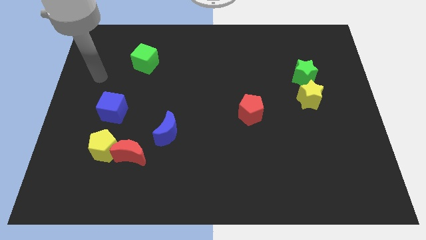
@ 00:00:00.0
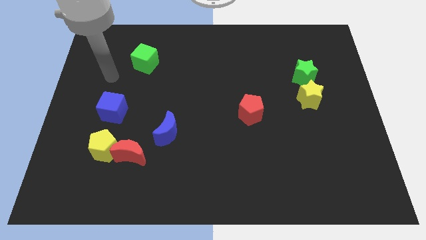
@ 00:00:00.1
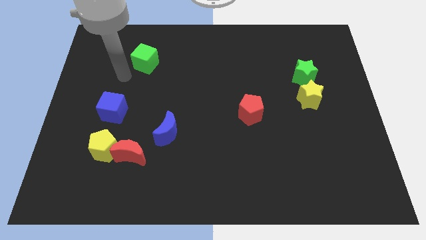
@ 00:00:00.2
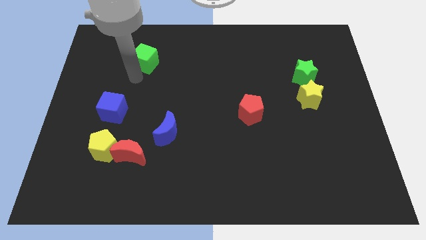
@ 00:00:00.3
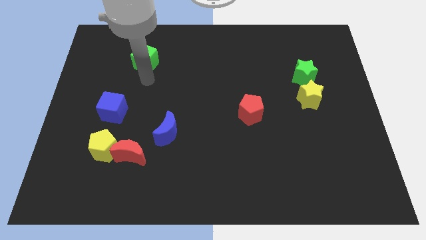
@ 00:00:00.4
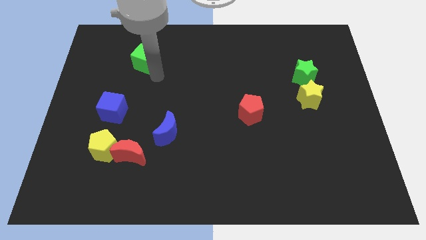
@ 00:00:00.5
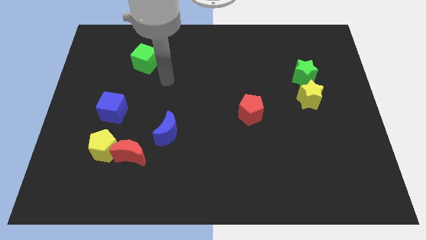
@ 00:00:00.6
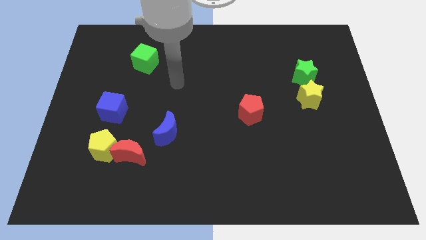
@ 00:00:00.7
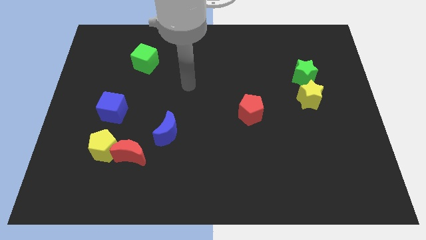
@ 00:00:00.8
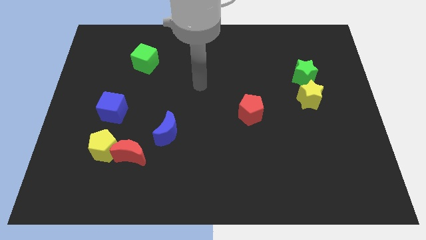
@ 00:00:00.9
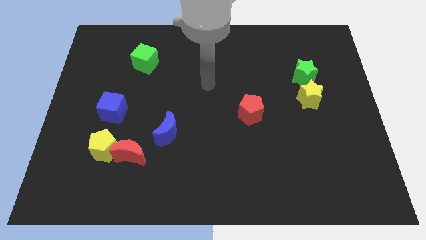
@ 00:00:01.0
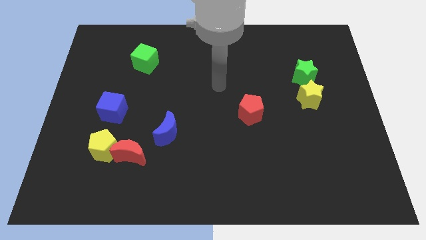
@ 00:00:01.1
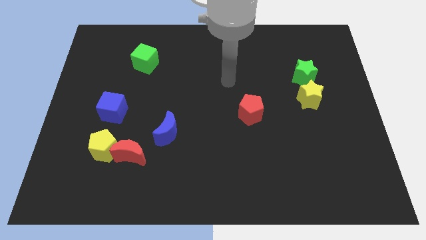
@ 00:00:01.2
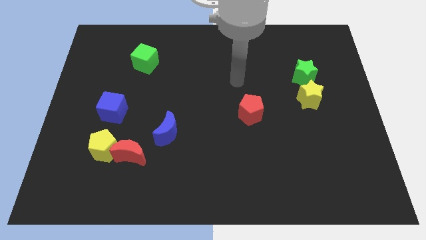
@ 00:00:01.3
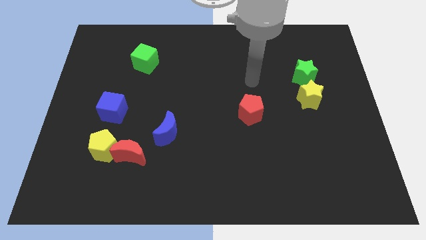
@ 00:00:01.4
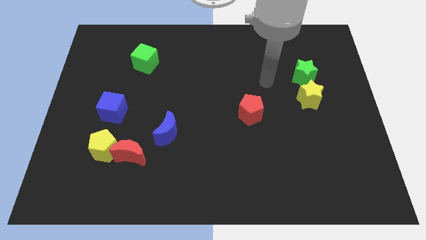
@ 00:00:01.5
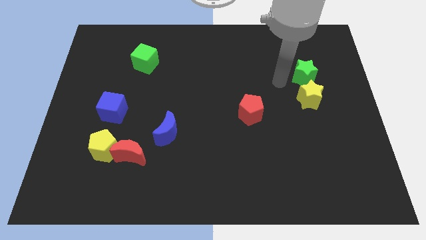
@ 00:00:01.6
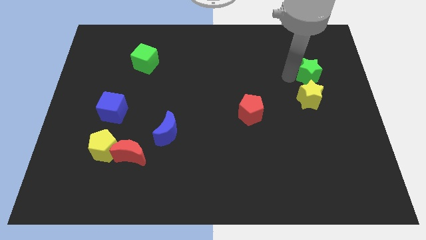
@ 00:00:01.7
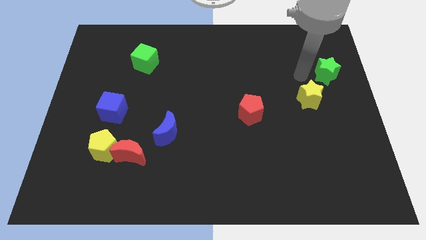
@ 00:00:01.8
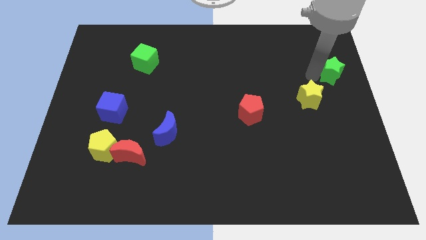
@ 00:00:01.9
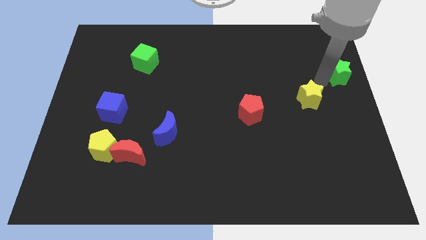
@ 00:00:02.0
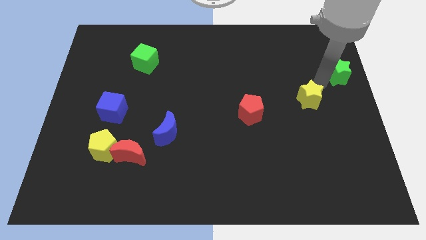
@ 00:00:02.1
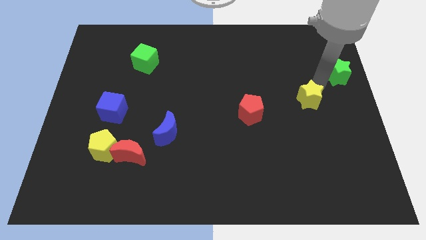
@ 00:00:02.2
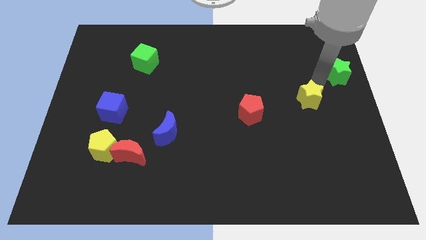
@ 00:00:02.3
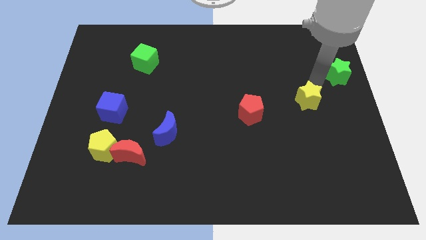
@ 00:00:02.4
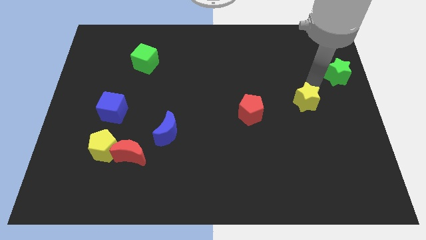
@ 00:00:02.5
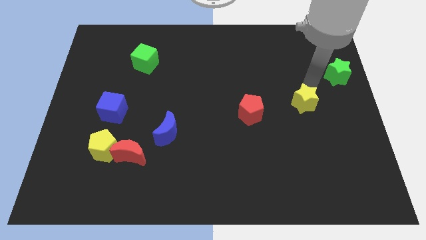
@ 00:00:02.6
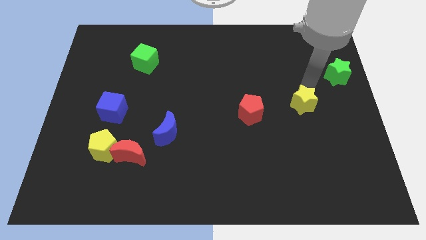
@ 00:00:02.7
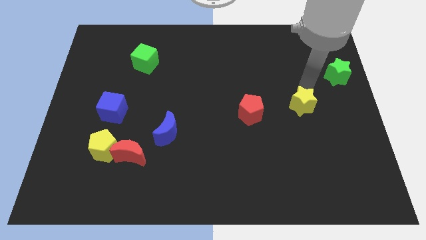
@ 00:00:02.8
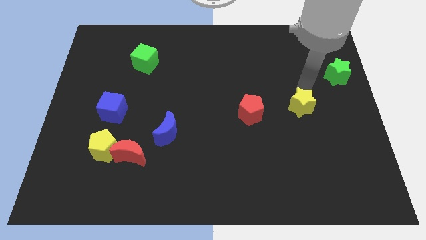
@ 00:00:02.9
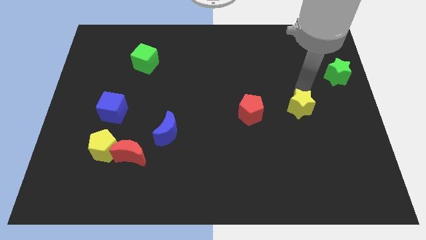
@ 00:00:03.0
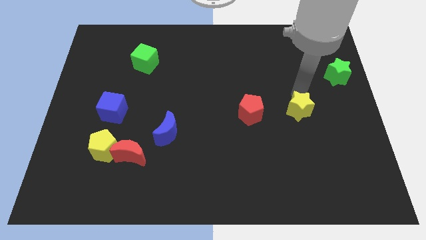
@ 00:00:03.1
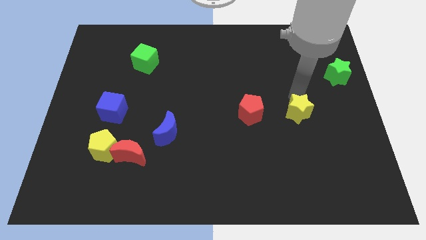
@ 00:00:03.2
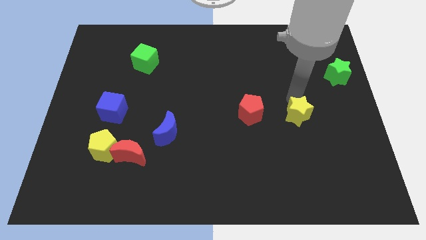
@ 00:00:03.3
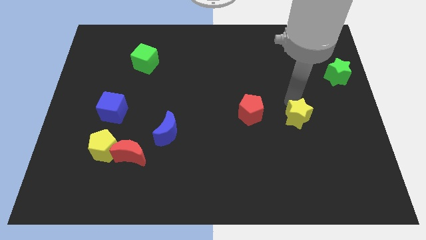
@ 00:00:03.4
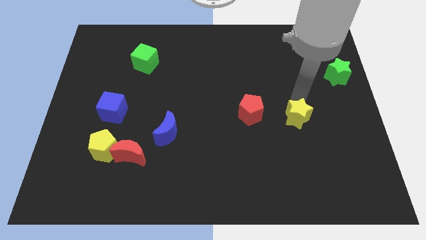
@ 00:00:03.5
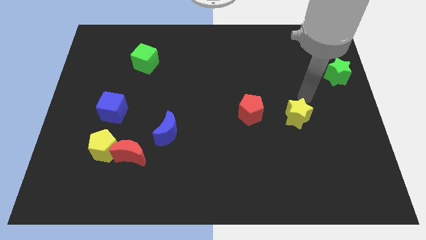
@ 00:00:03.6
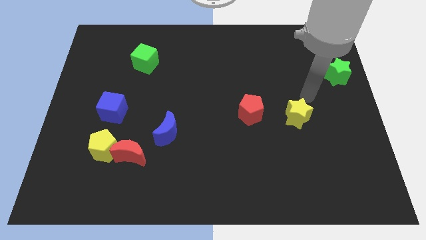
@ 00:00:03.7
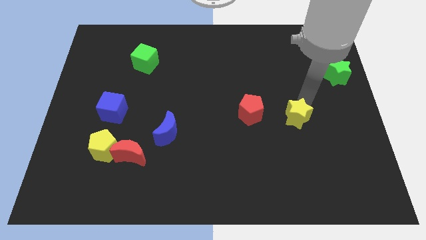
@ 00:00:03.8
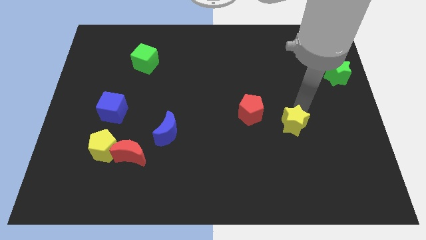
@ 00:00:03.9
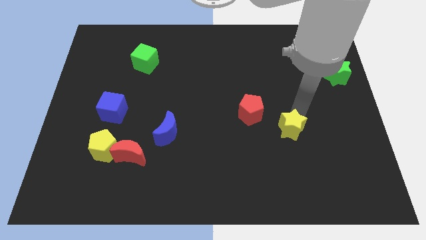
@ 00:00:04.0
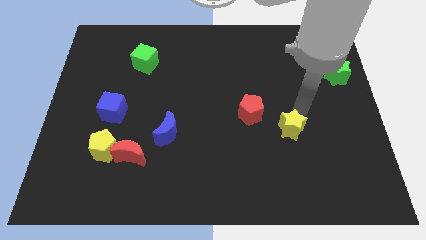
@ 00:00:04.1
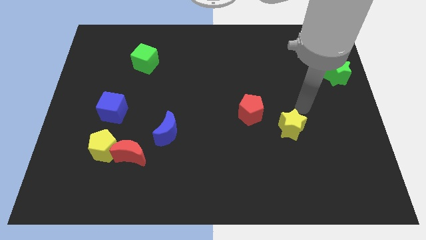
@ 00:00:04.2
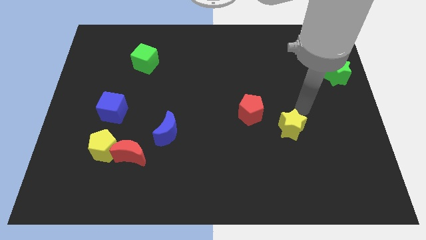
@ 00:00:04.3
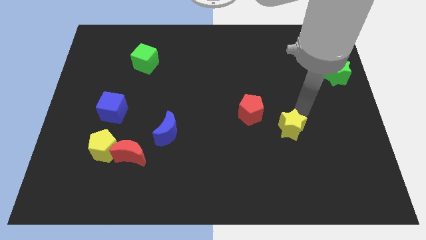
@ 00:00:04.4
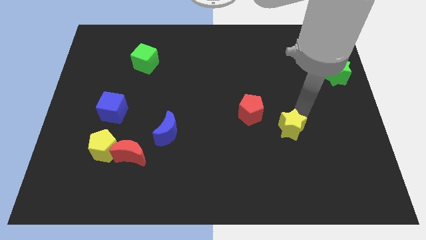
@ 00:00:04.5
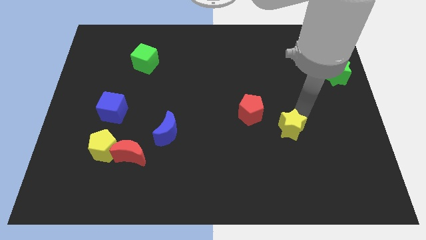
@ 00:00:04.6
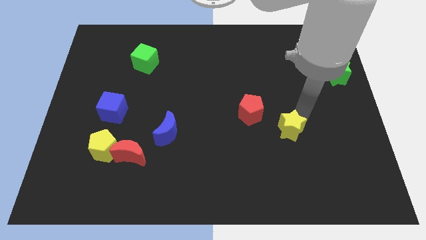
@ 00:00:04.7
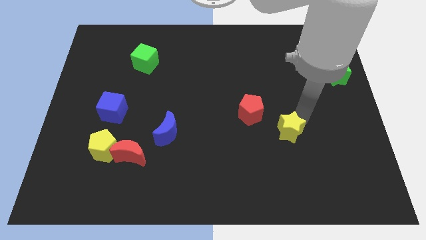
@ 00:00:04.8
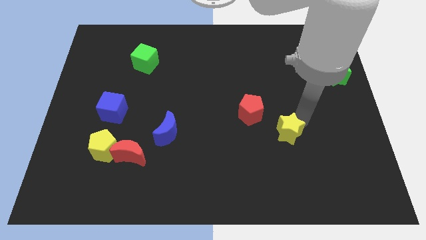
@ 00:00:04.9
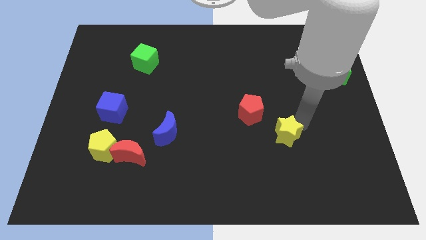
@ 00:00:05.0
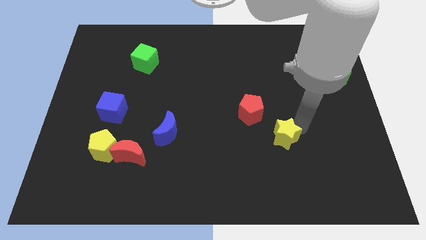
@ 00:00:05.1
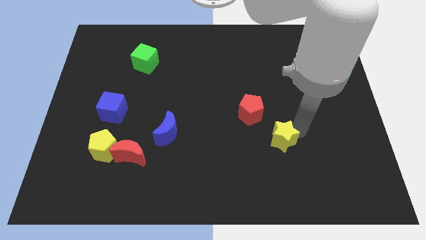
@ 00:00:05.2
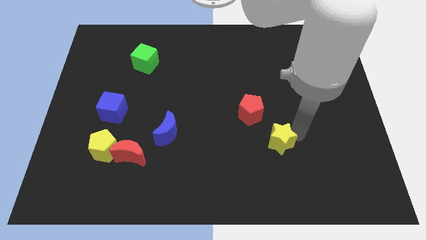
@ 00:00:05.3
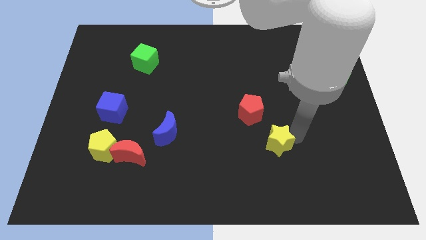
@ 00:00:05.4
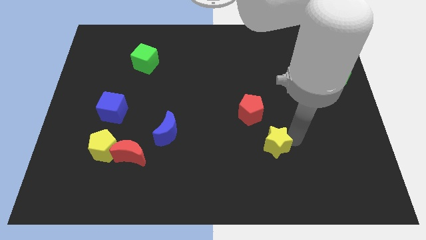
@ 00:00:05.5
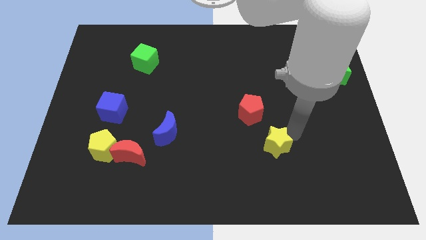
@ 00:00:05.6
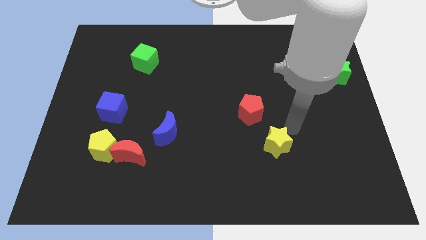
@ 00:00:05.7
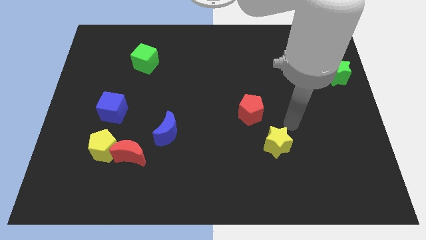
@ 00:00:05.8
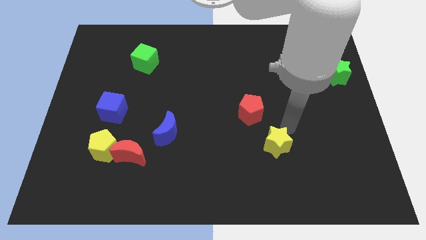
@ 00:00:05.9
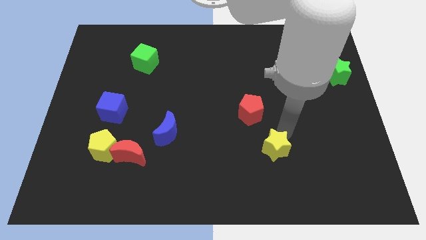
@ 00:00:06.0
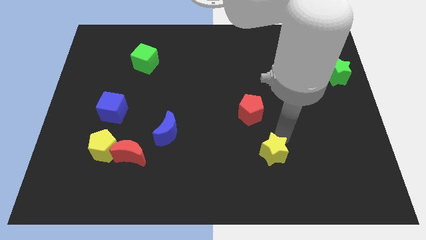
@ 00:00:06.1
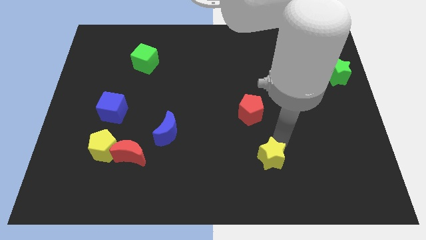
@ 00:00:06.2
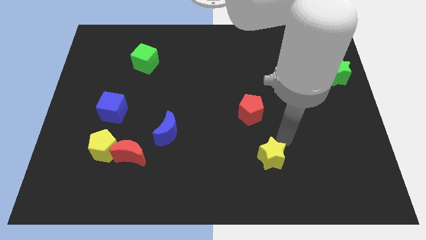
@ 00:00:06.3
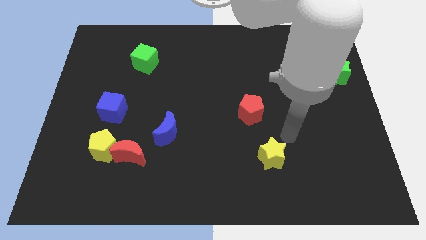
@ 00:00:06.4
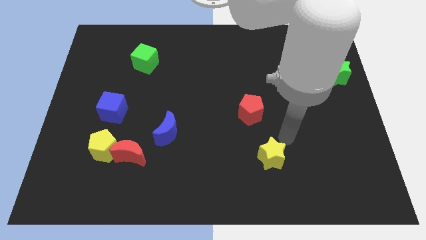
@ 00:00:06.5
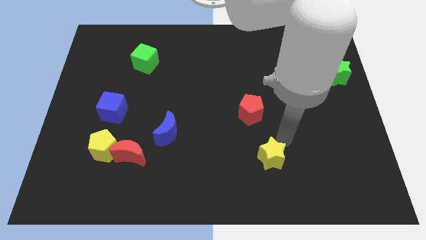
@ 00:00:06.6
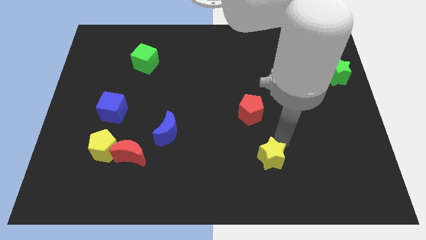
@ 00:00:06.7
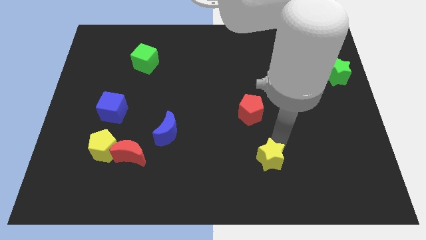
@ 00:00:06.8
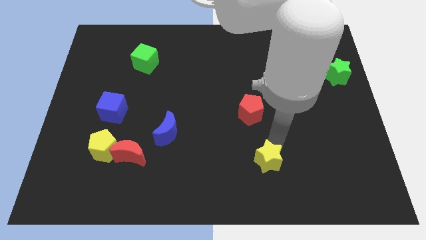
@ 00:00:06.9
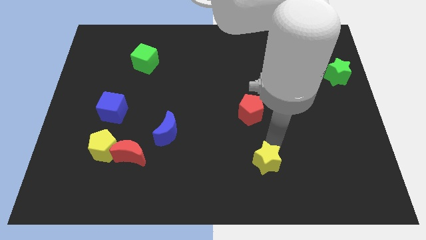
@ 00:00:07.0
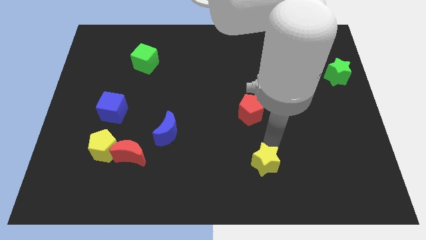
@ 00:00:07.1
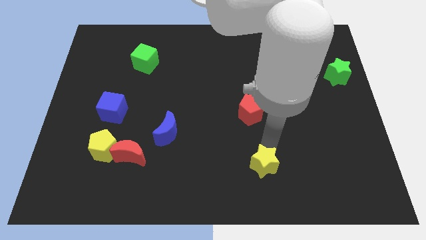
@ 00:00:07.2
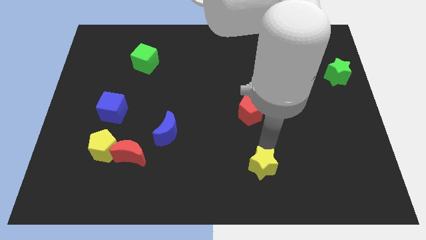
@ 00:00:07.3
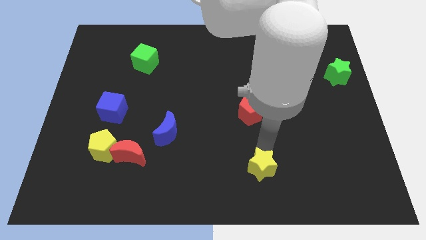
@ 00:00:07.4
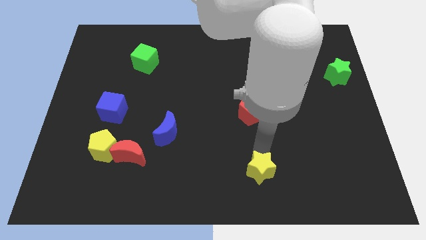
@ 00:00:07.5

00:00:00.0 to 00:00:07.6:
push the yellow star to the bottom side
